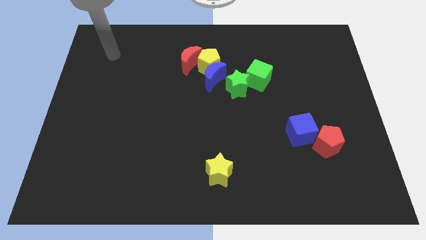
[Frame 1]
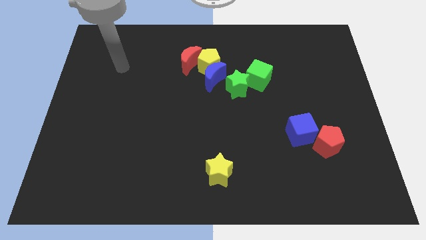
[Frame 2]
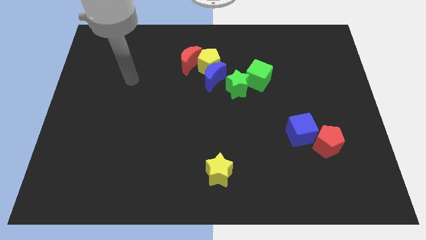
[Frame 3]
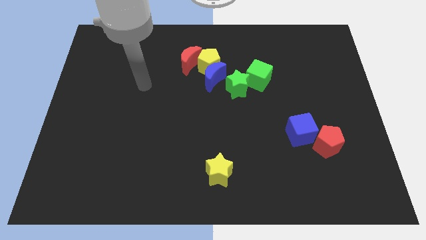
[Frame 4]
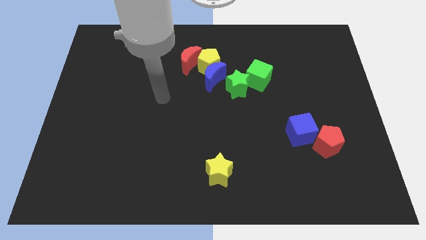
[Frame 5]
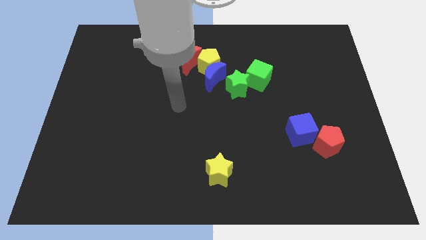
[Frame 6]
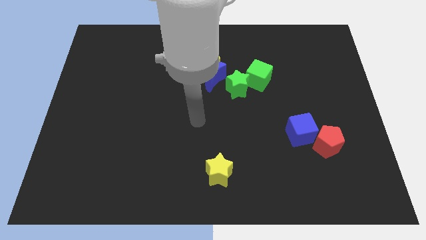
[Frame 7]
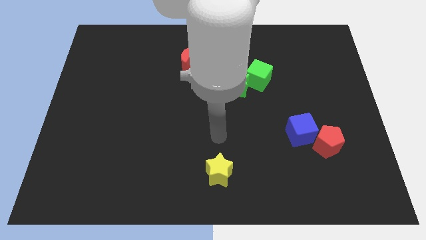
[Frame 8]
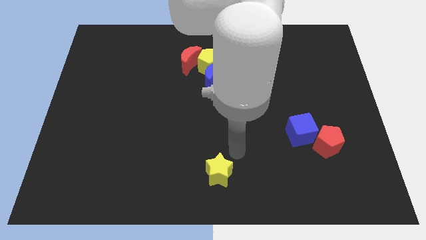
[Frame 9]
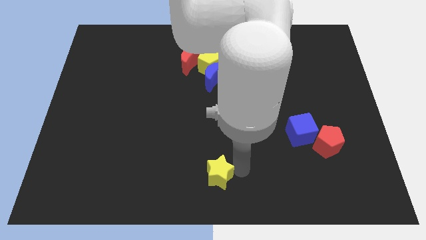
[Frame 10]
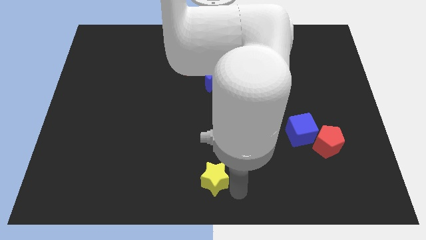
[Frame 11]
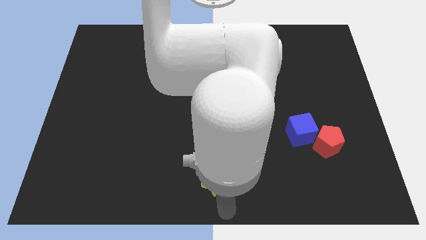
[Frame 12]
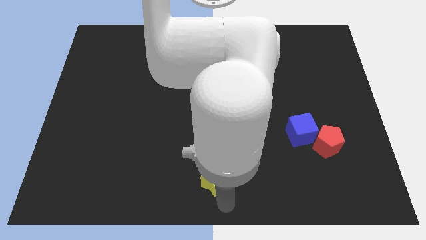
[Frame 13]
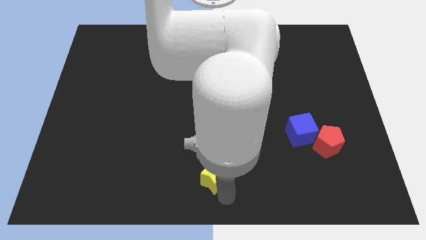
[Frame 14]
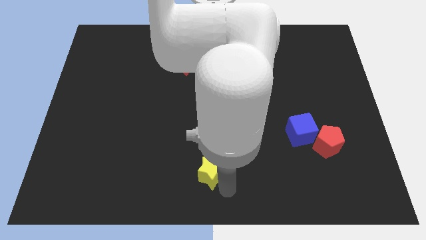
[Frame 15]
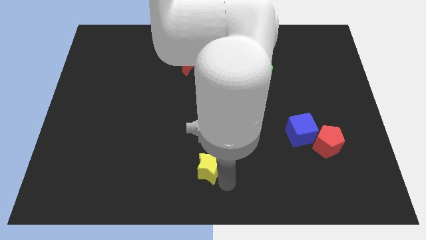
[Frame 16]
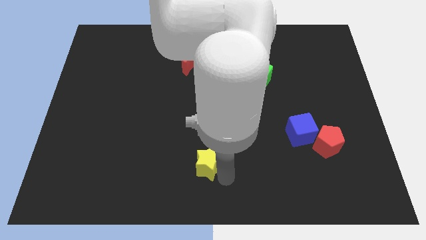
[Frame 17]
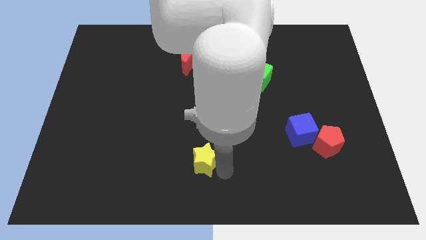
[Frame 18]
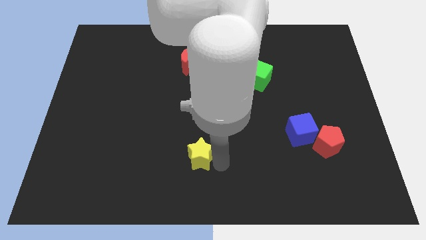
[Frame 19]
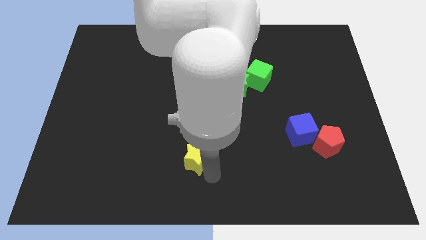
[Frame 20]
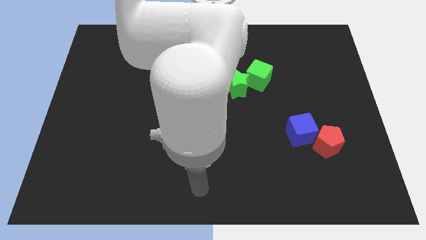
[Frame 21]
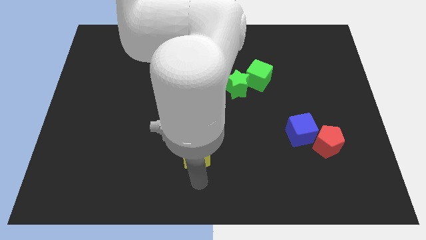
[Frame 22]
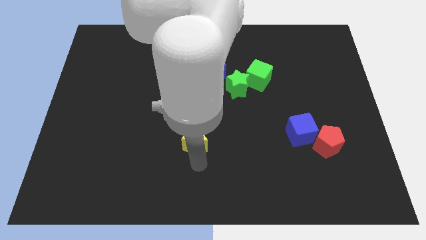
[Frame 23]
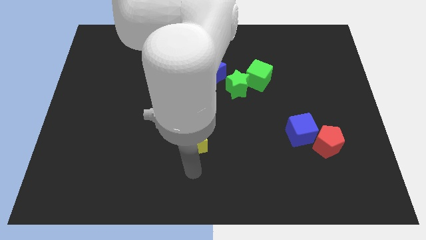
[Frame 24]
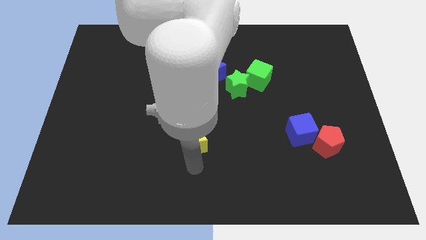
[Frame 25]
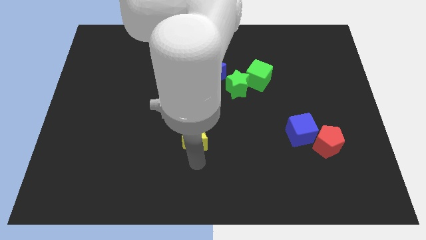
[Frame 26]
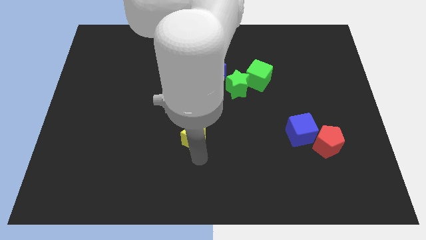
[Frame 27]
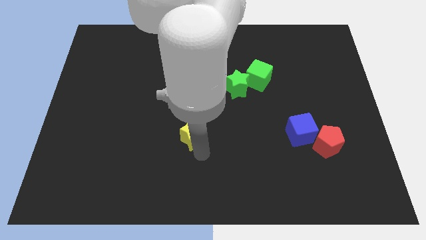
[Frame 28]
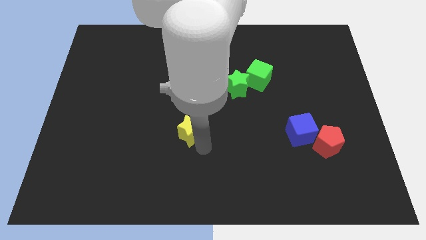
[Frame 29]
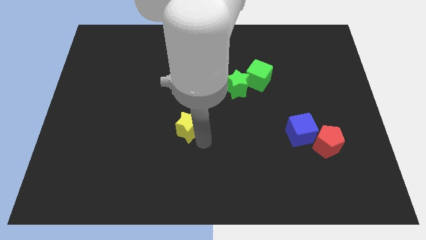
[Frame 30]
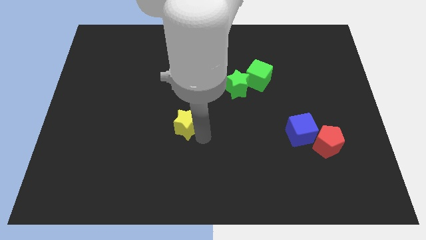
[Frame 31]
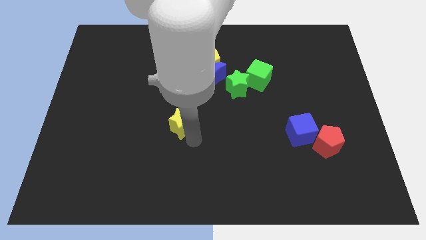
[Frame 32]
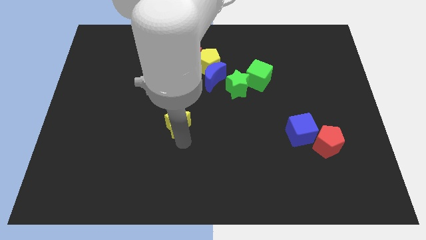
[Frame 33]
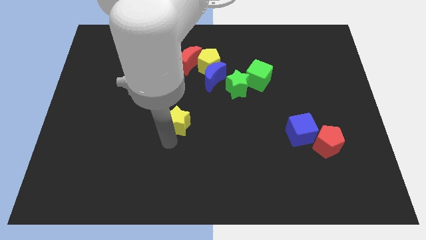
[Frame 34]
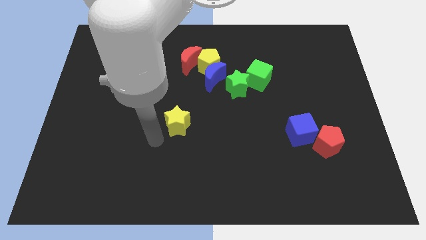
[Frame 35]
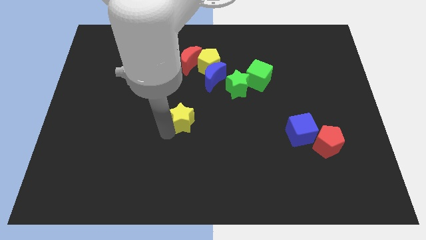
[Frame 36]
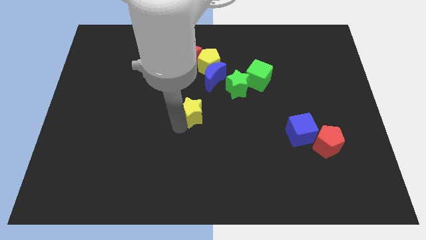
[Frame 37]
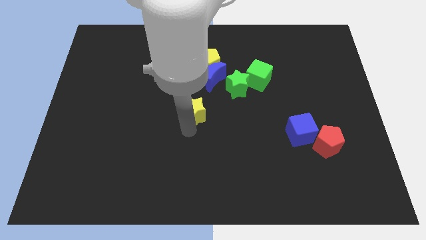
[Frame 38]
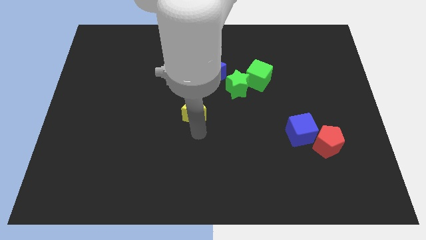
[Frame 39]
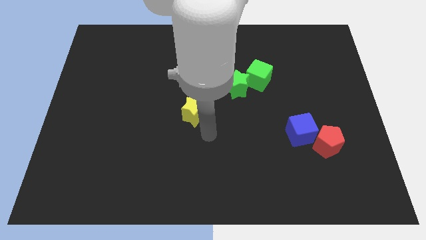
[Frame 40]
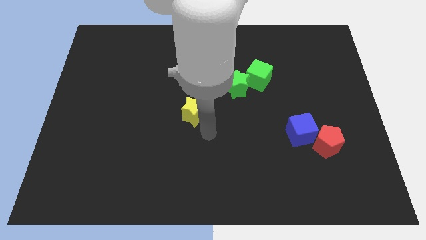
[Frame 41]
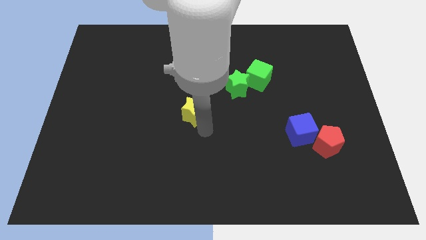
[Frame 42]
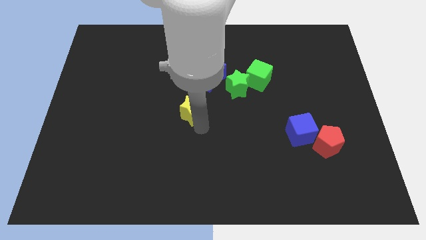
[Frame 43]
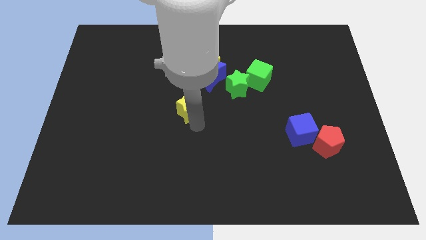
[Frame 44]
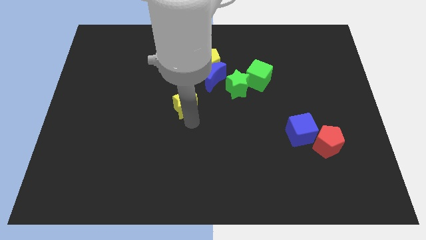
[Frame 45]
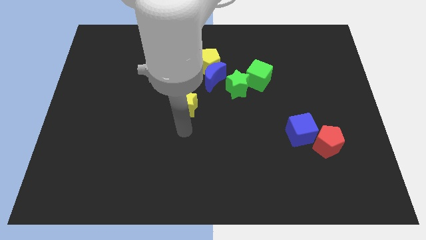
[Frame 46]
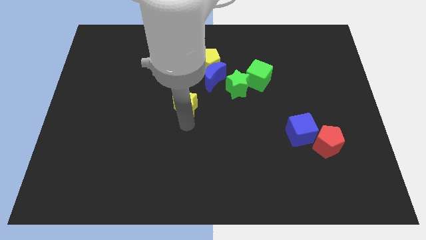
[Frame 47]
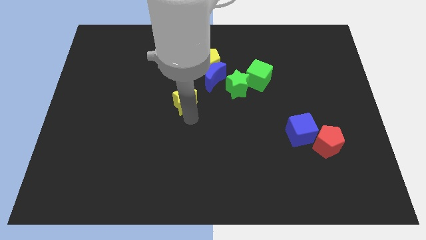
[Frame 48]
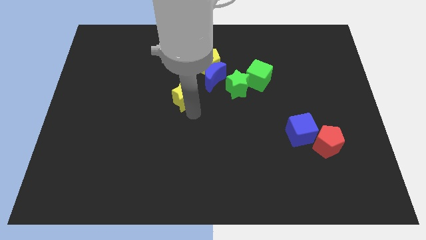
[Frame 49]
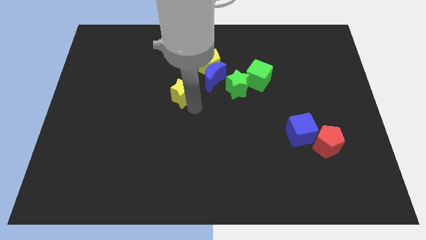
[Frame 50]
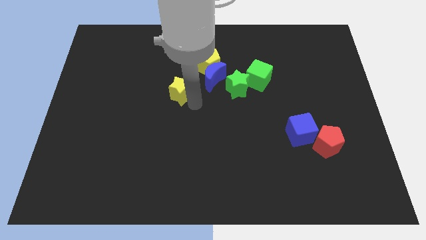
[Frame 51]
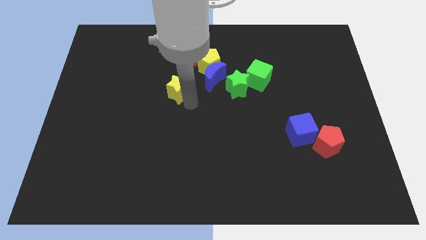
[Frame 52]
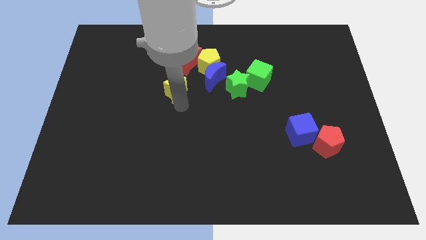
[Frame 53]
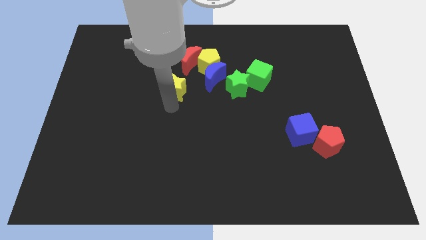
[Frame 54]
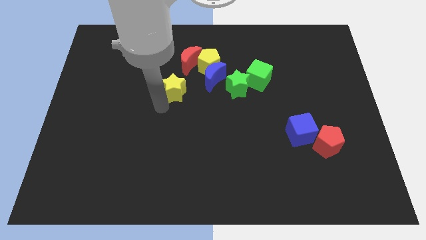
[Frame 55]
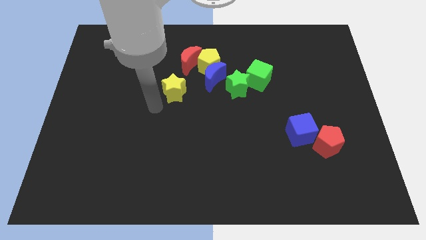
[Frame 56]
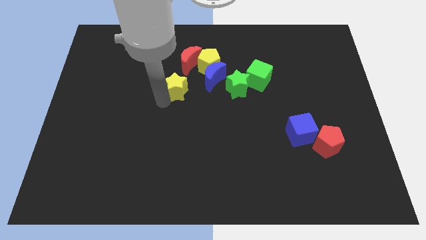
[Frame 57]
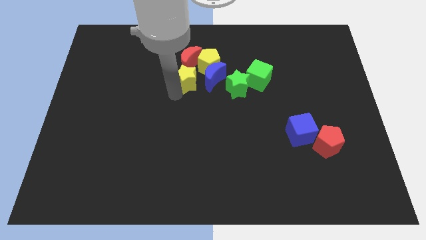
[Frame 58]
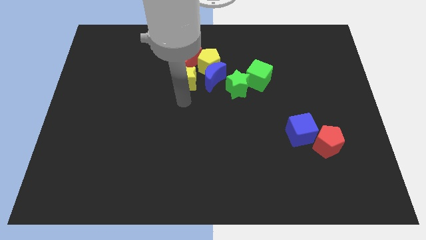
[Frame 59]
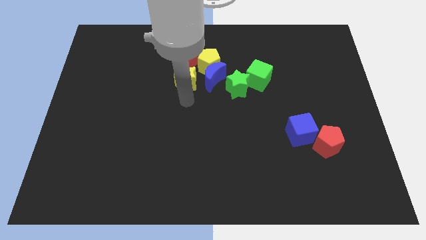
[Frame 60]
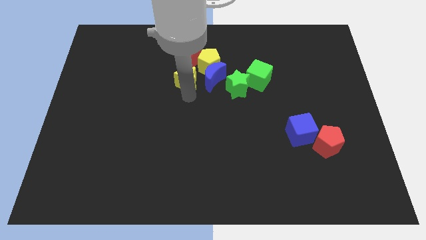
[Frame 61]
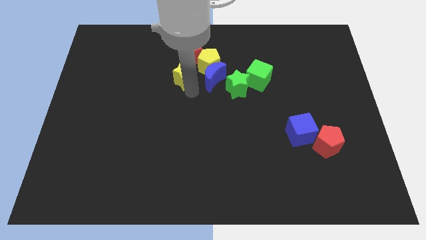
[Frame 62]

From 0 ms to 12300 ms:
move the yellow star towards the red moon

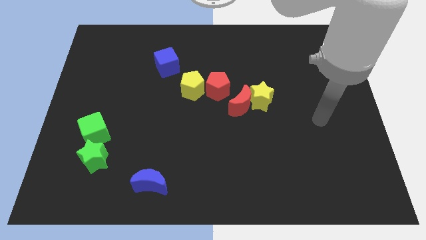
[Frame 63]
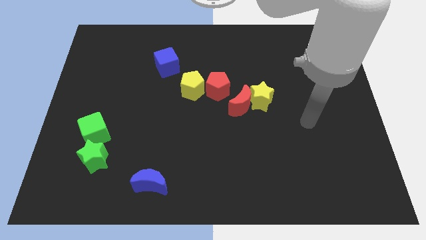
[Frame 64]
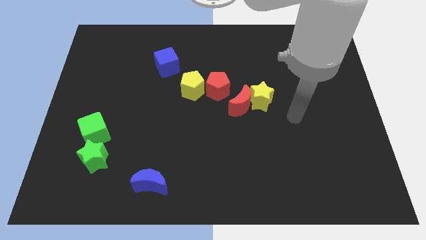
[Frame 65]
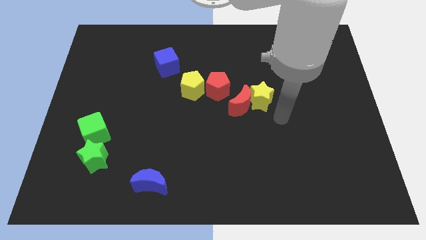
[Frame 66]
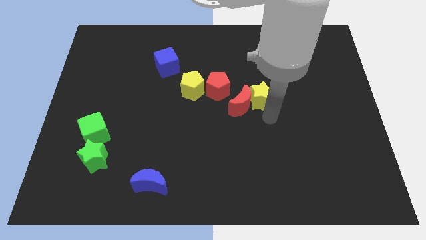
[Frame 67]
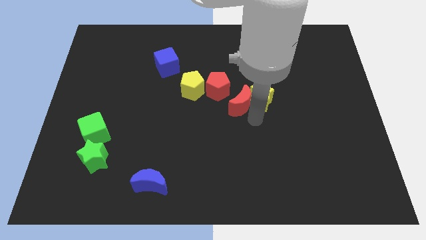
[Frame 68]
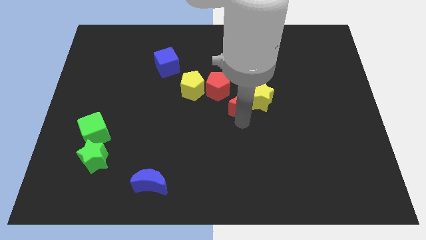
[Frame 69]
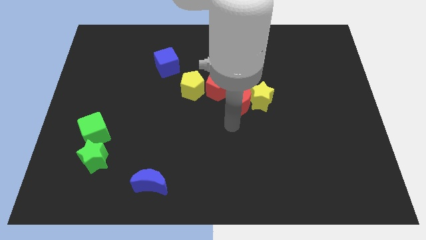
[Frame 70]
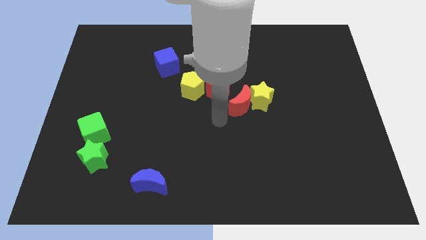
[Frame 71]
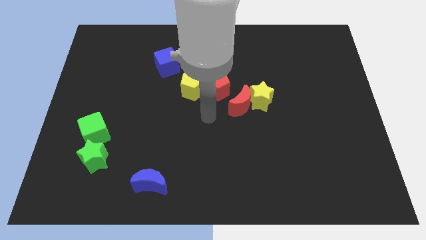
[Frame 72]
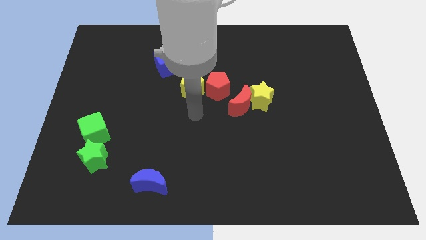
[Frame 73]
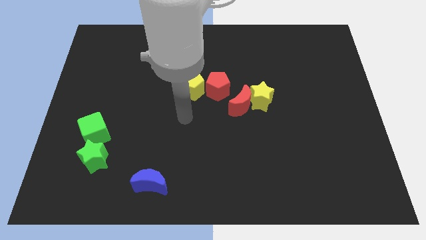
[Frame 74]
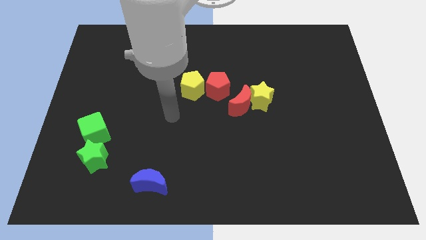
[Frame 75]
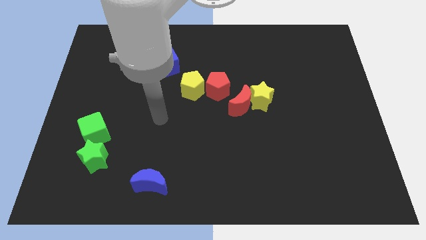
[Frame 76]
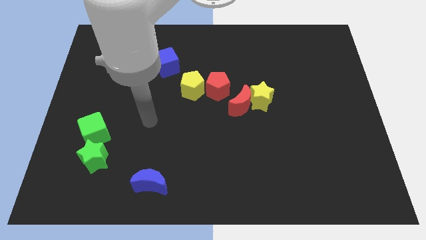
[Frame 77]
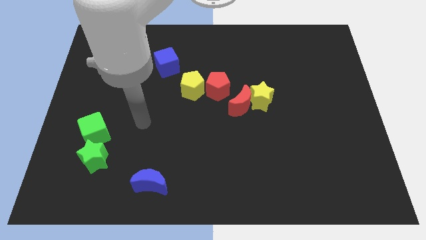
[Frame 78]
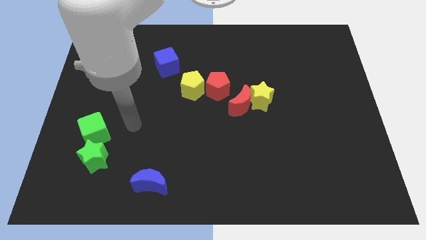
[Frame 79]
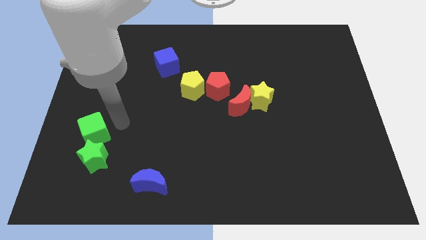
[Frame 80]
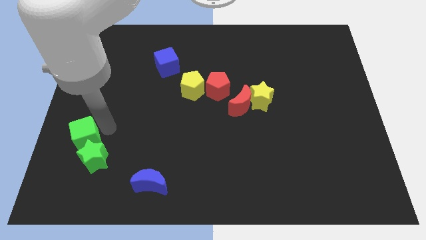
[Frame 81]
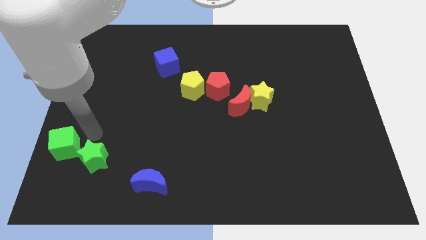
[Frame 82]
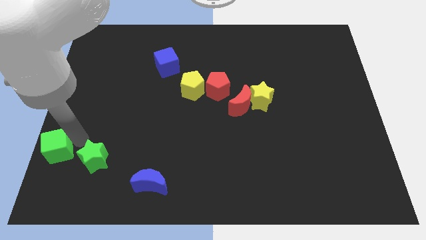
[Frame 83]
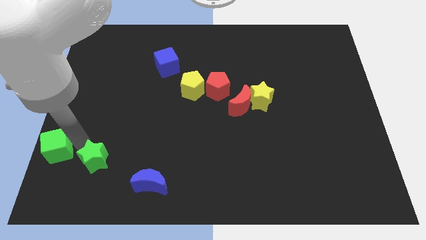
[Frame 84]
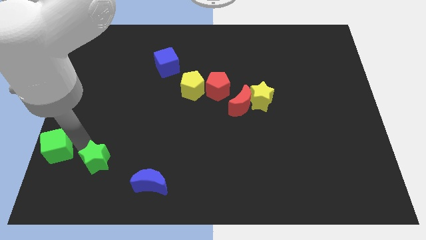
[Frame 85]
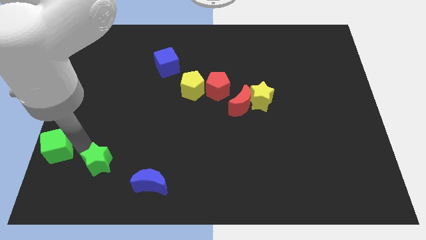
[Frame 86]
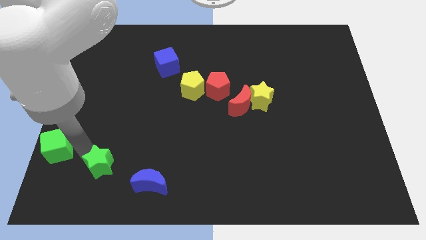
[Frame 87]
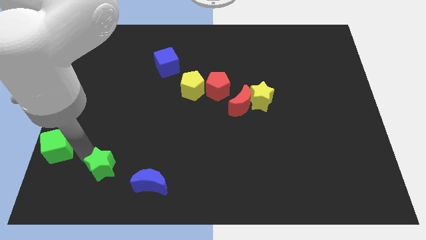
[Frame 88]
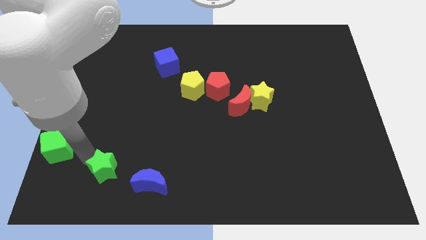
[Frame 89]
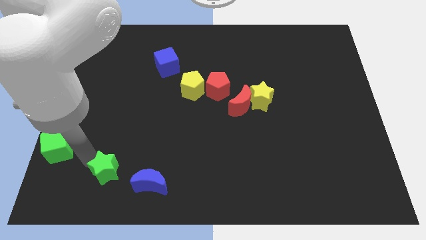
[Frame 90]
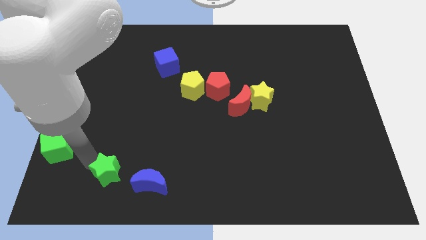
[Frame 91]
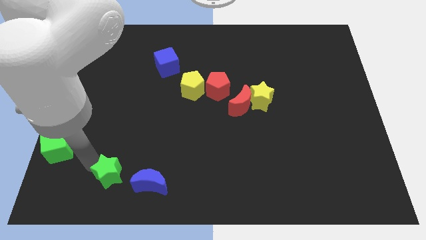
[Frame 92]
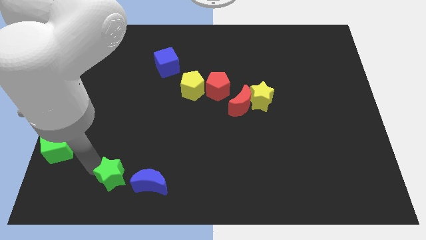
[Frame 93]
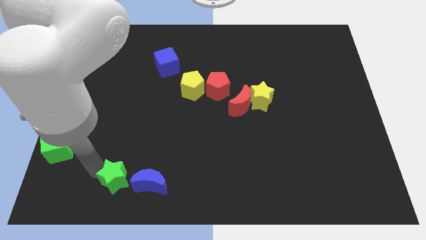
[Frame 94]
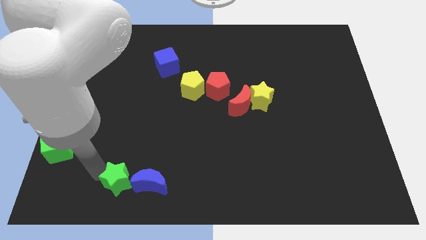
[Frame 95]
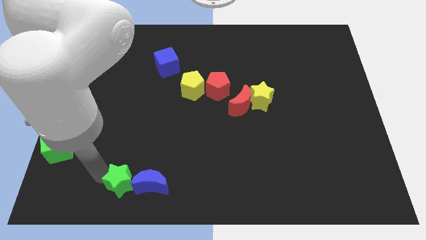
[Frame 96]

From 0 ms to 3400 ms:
move the green star to the blue moon
